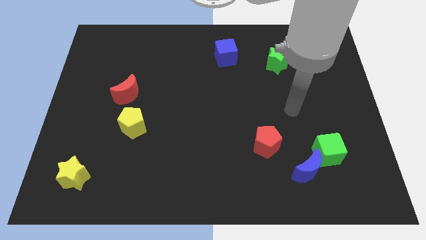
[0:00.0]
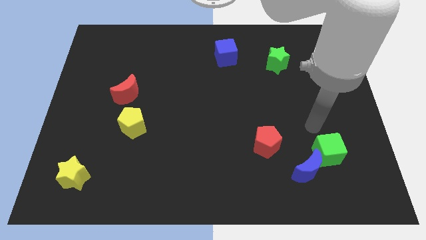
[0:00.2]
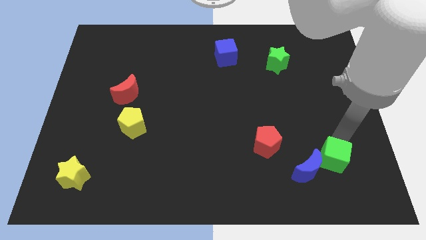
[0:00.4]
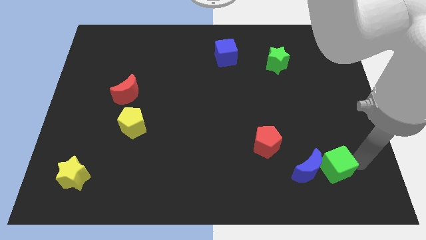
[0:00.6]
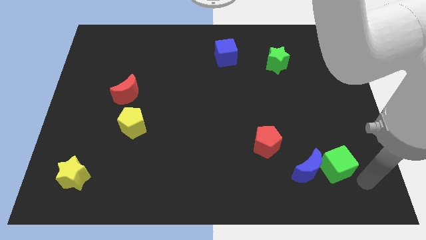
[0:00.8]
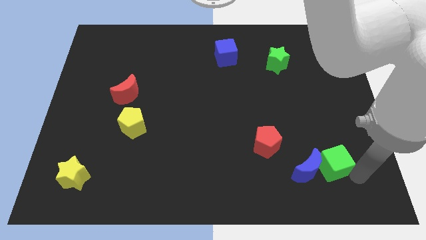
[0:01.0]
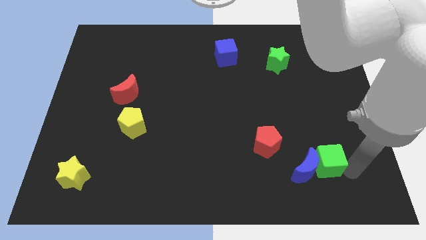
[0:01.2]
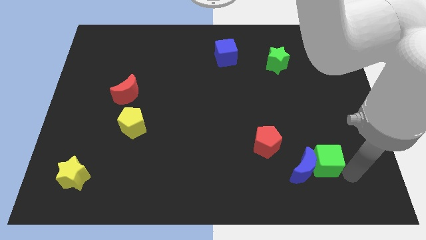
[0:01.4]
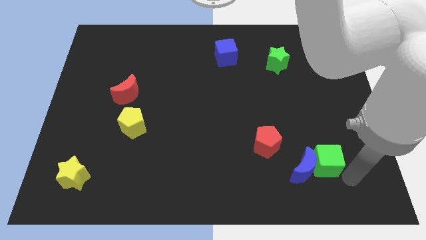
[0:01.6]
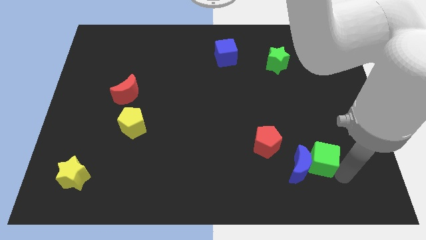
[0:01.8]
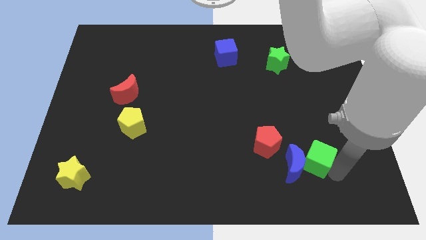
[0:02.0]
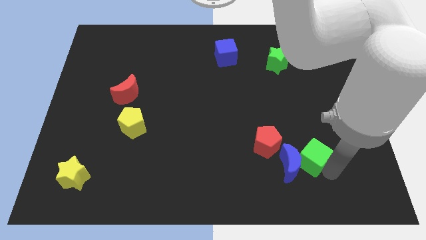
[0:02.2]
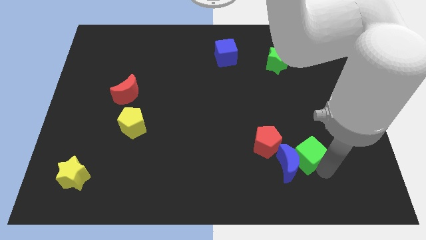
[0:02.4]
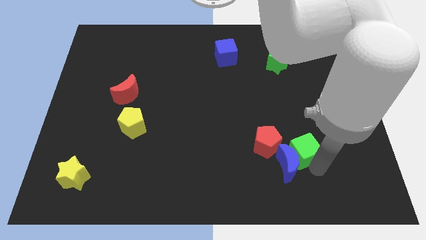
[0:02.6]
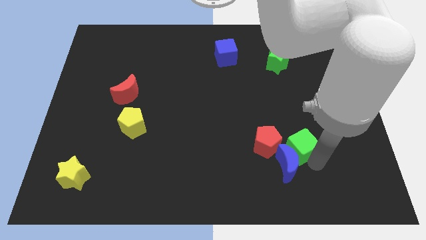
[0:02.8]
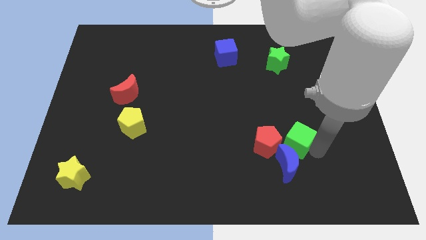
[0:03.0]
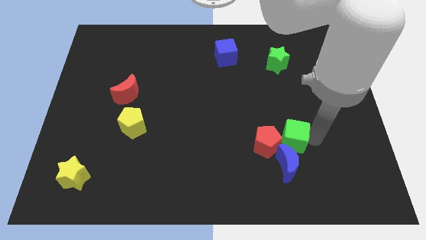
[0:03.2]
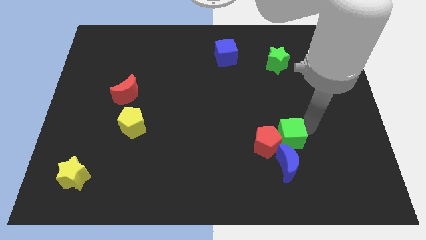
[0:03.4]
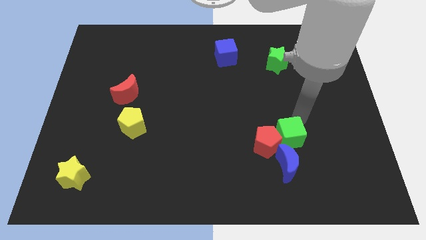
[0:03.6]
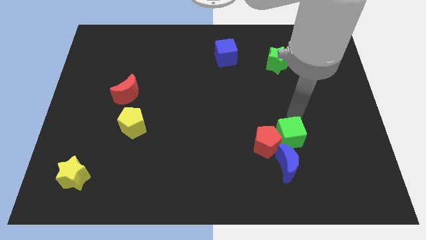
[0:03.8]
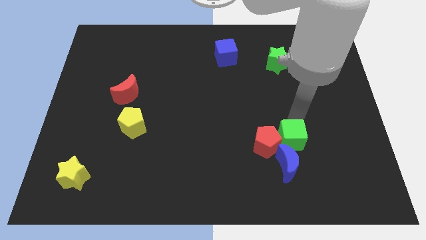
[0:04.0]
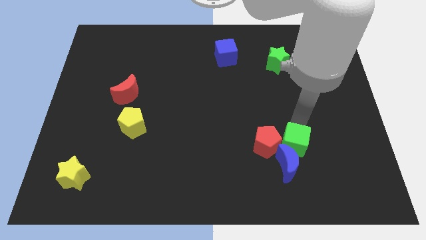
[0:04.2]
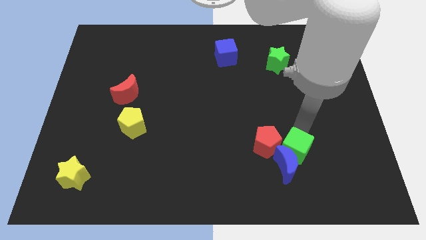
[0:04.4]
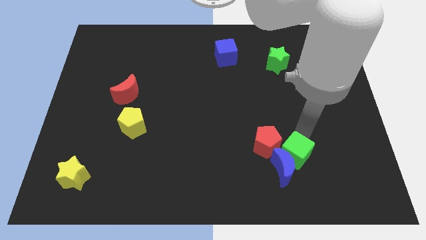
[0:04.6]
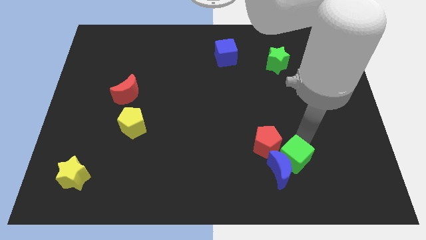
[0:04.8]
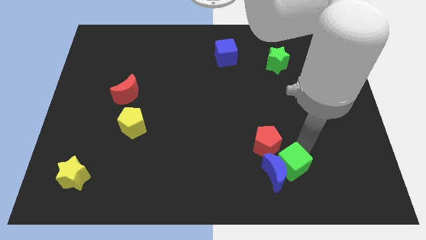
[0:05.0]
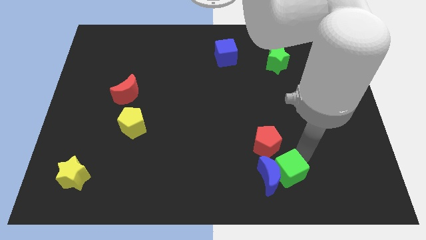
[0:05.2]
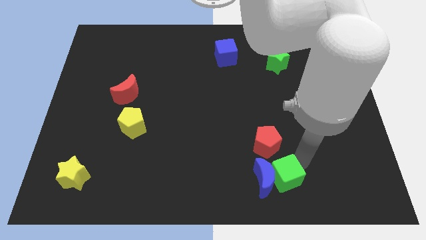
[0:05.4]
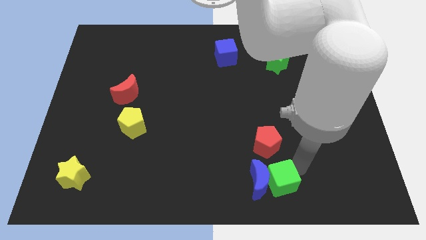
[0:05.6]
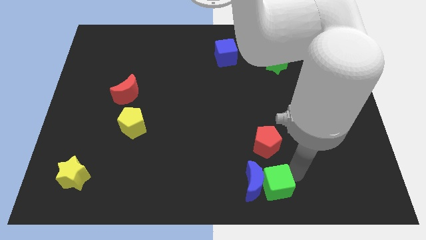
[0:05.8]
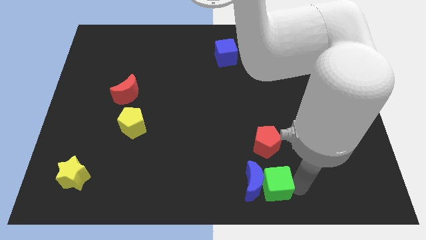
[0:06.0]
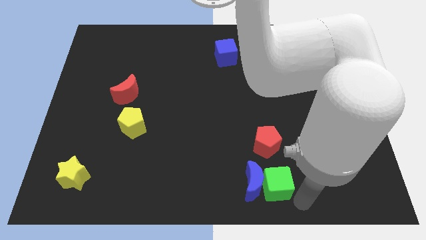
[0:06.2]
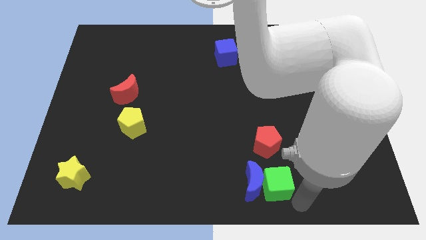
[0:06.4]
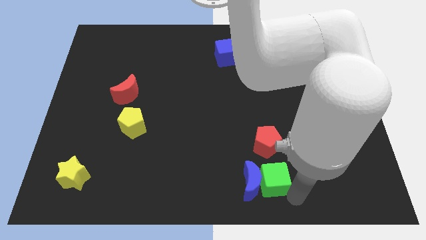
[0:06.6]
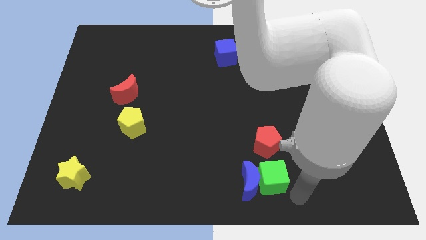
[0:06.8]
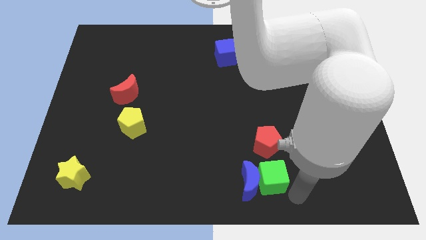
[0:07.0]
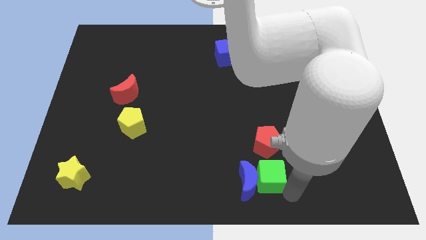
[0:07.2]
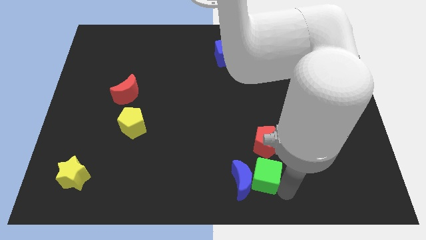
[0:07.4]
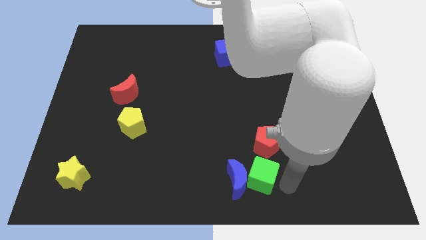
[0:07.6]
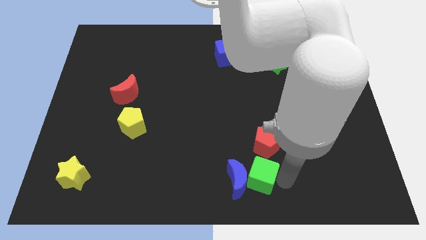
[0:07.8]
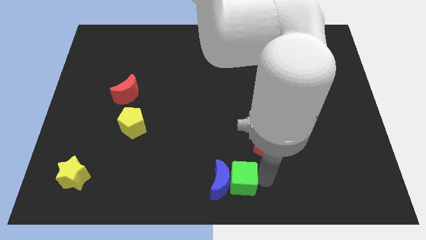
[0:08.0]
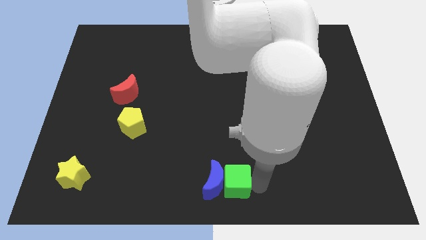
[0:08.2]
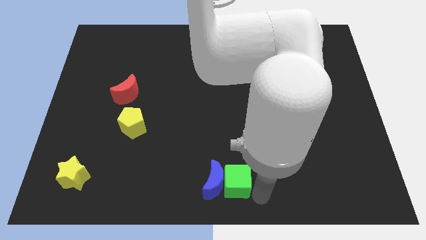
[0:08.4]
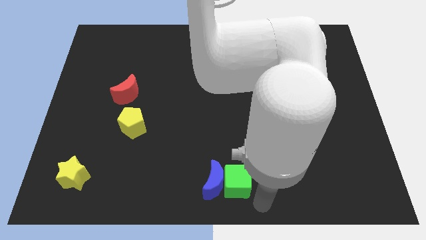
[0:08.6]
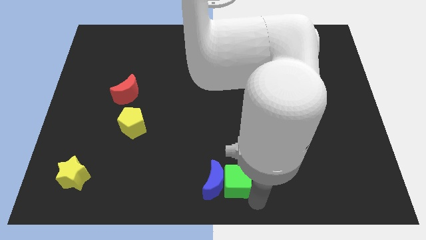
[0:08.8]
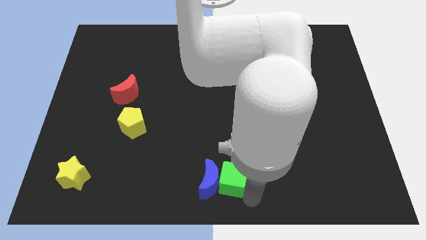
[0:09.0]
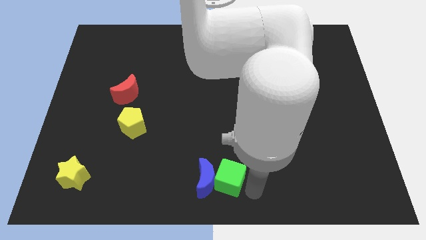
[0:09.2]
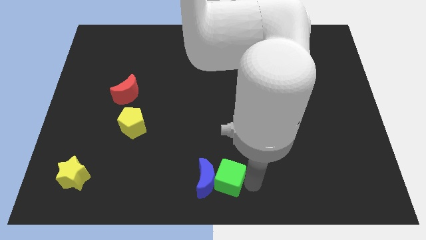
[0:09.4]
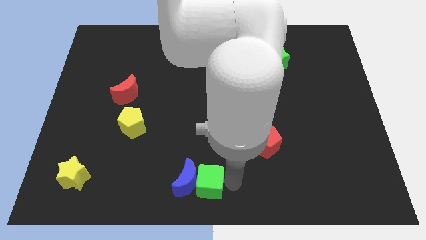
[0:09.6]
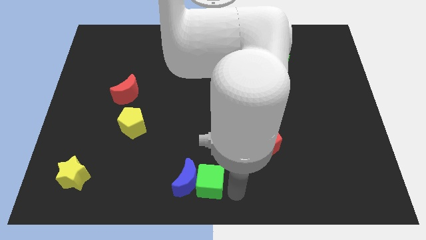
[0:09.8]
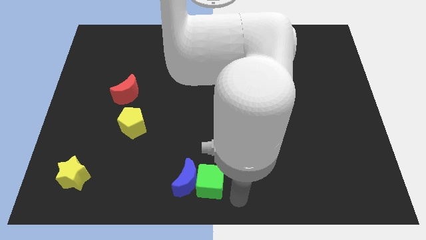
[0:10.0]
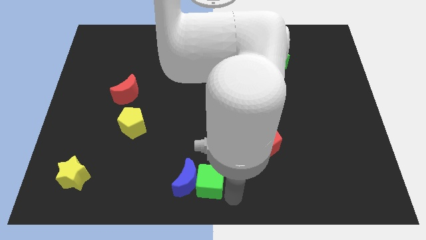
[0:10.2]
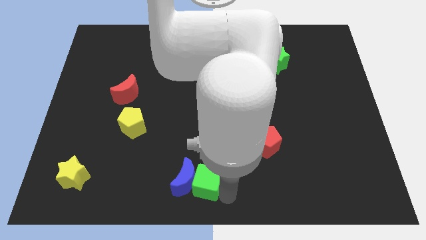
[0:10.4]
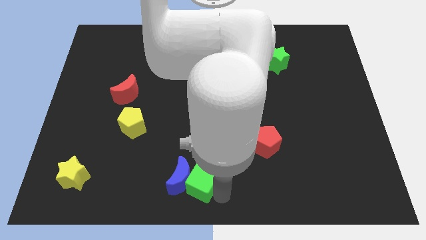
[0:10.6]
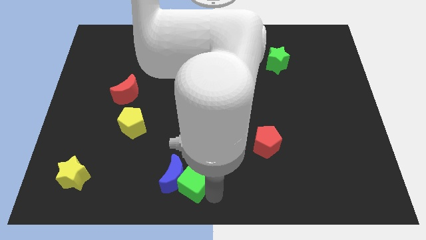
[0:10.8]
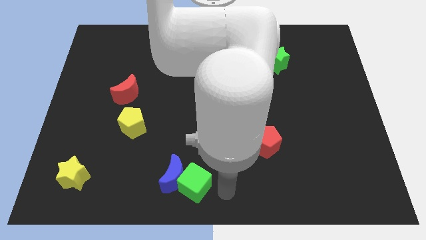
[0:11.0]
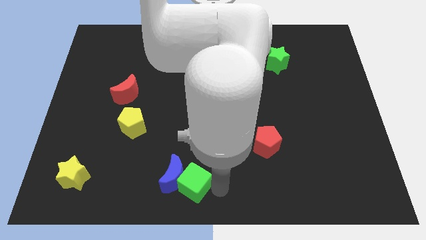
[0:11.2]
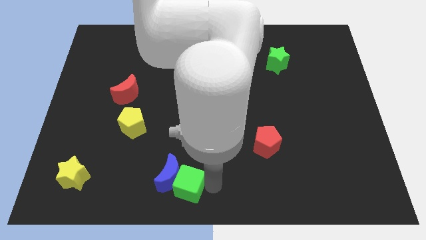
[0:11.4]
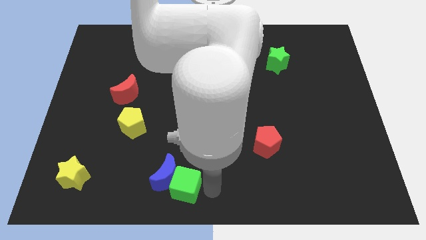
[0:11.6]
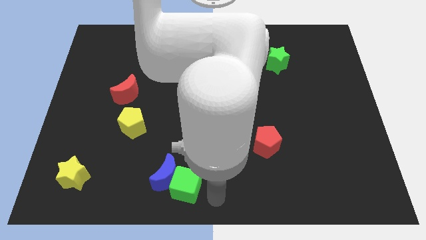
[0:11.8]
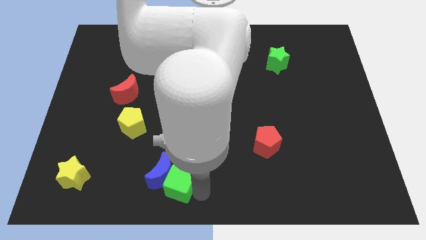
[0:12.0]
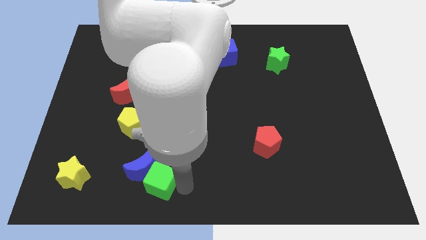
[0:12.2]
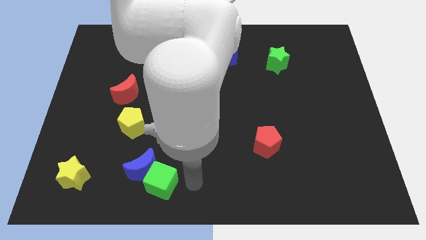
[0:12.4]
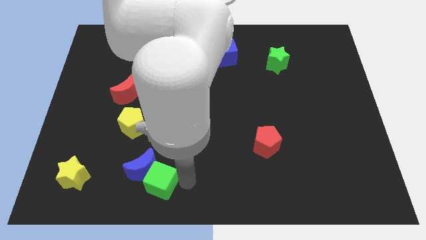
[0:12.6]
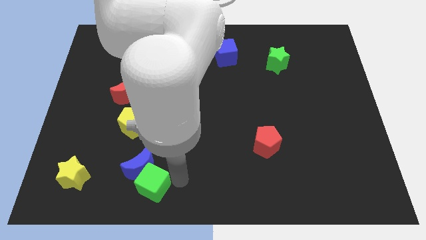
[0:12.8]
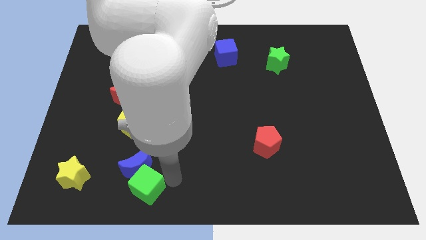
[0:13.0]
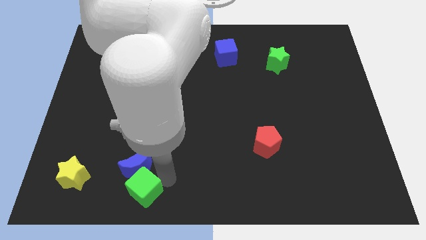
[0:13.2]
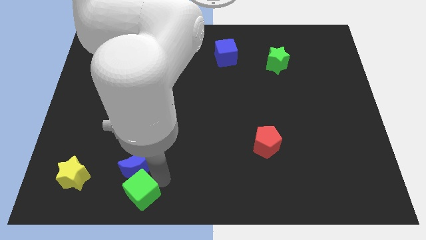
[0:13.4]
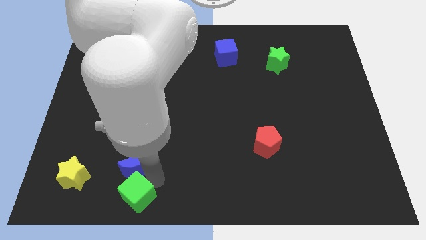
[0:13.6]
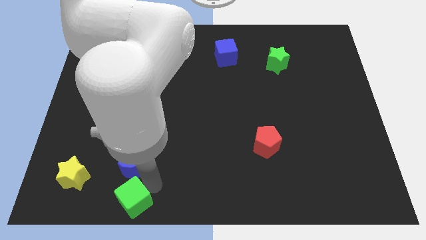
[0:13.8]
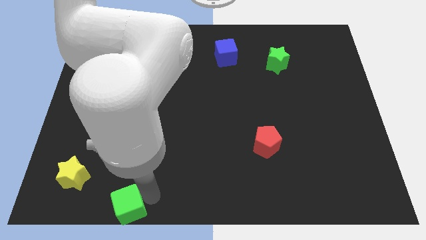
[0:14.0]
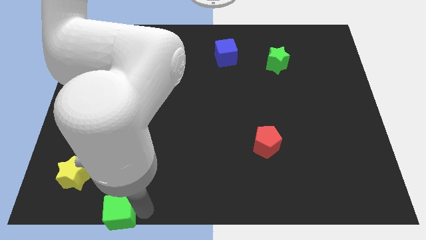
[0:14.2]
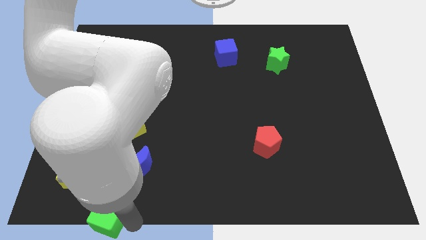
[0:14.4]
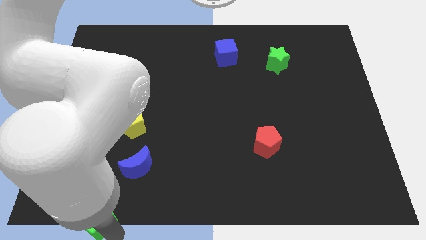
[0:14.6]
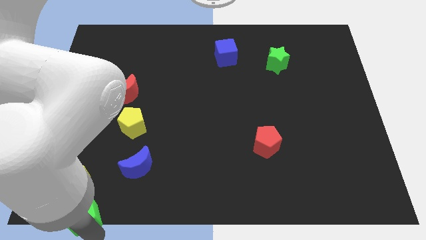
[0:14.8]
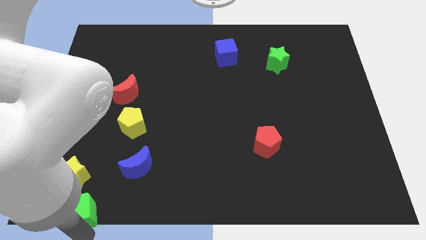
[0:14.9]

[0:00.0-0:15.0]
put the green cube to the bottom left of the board
